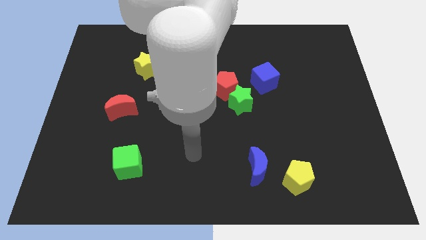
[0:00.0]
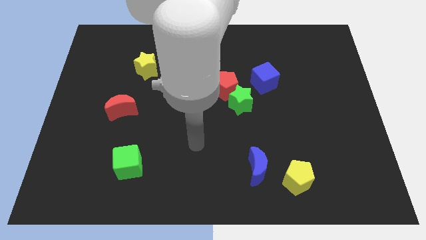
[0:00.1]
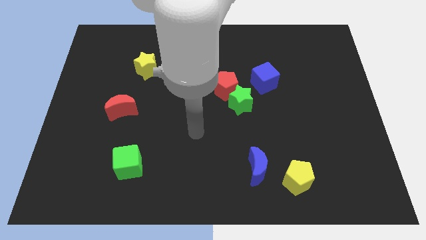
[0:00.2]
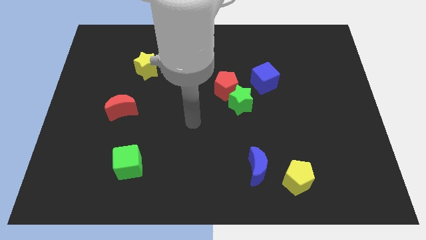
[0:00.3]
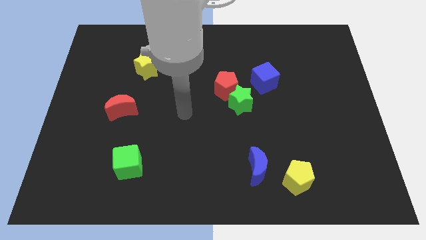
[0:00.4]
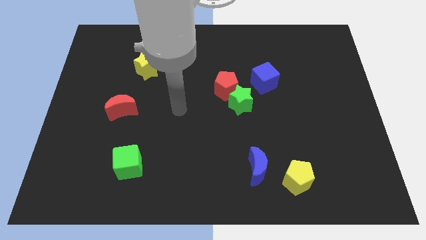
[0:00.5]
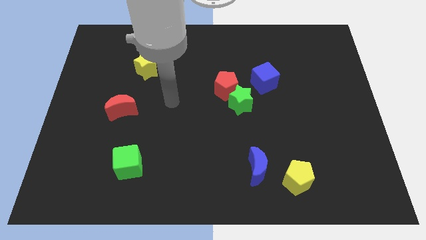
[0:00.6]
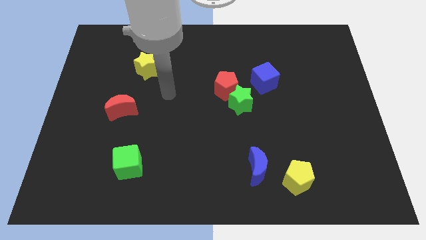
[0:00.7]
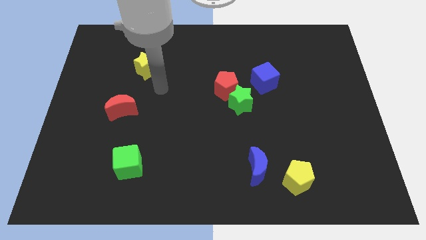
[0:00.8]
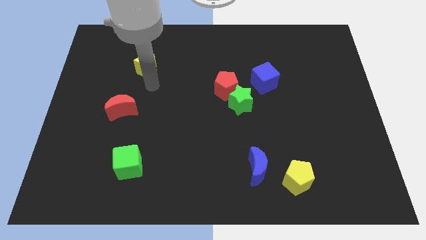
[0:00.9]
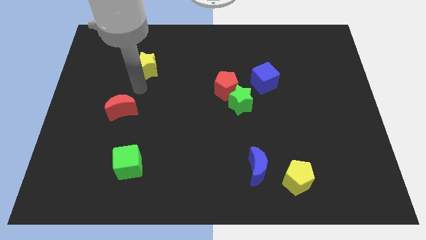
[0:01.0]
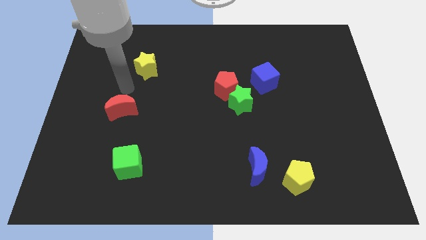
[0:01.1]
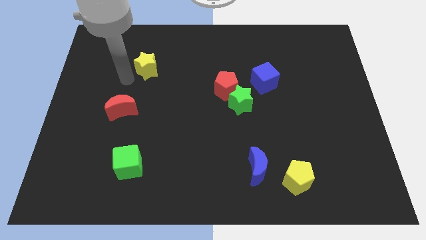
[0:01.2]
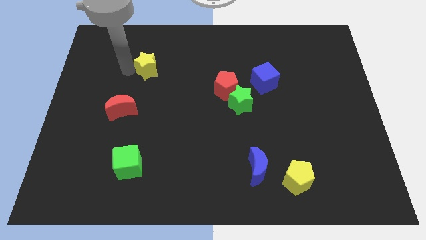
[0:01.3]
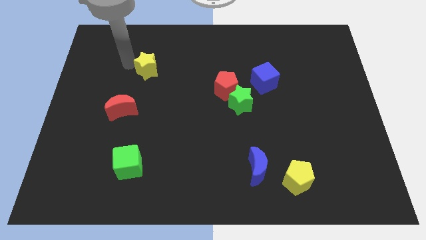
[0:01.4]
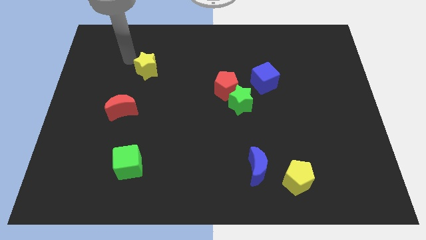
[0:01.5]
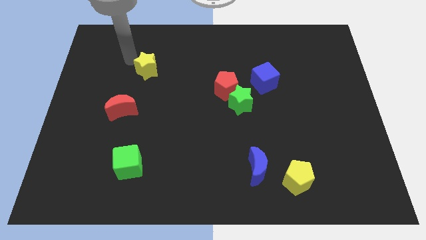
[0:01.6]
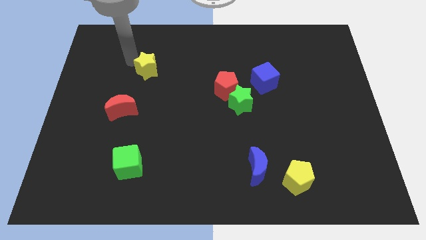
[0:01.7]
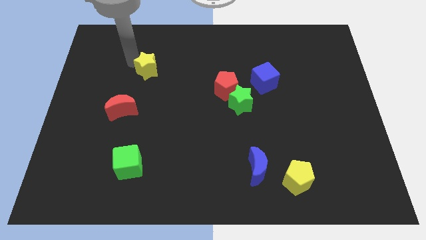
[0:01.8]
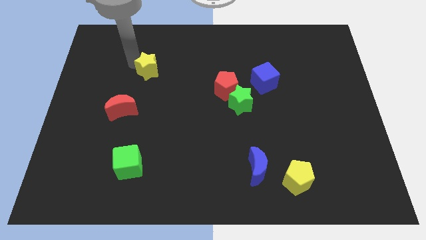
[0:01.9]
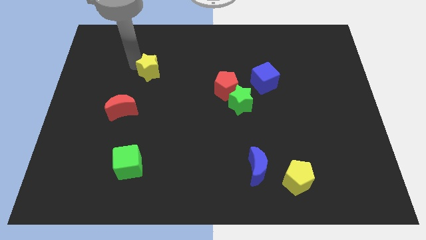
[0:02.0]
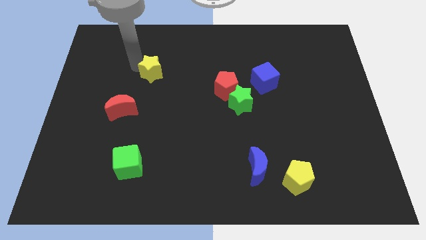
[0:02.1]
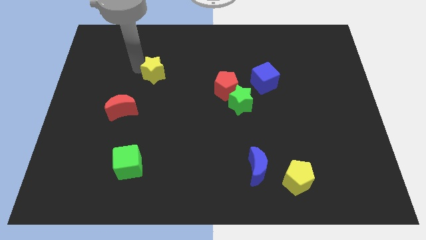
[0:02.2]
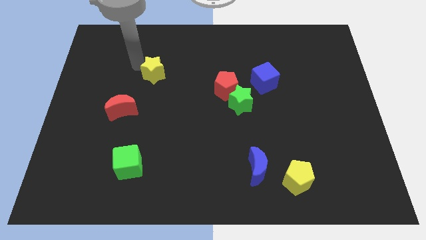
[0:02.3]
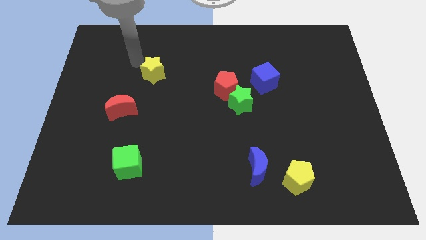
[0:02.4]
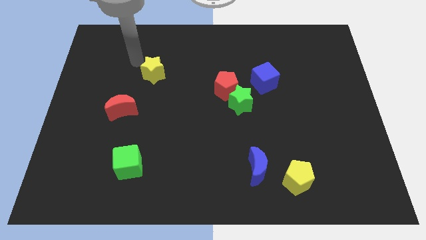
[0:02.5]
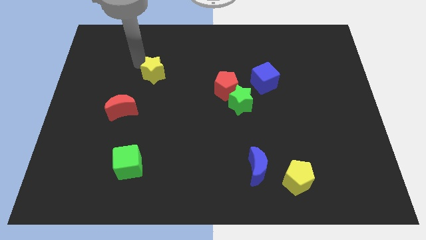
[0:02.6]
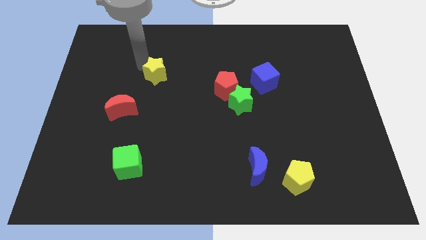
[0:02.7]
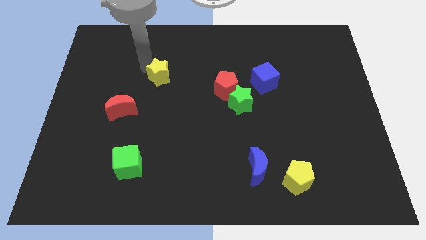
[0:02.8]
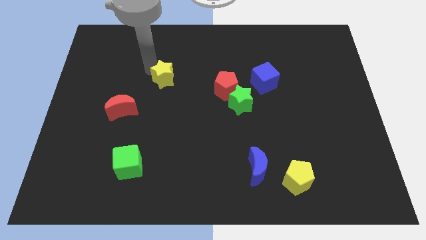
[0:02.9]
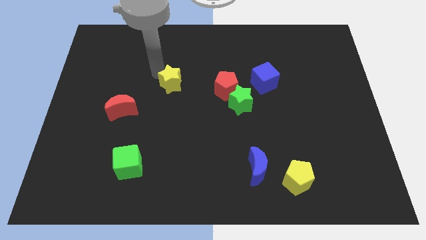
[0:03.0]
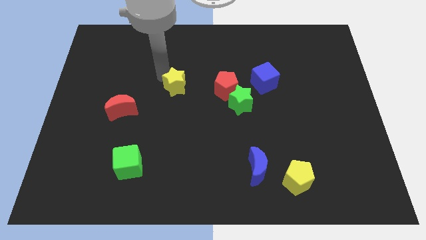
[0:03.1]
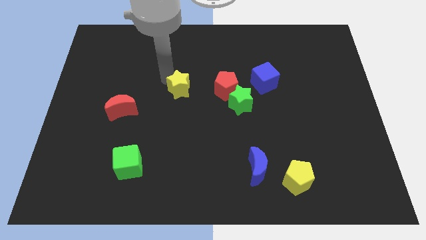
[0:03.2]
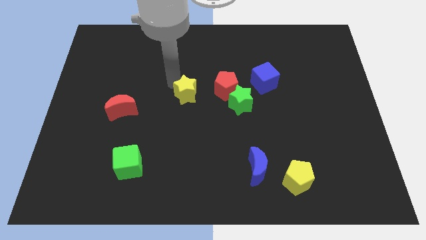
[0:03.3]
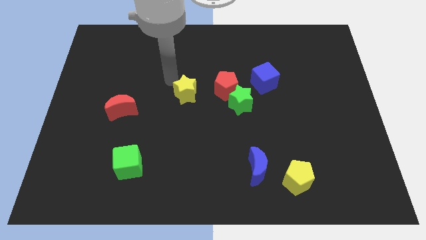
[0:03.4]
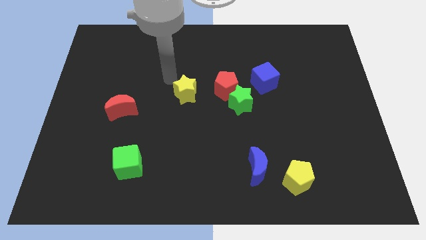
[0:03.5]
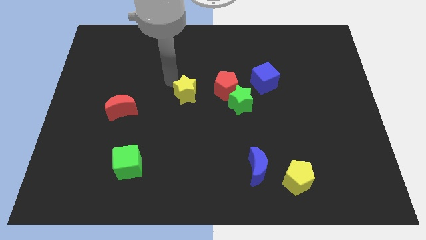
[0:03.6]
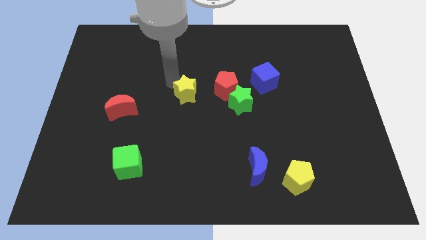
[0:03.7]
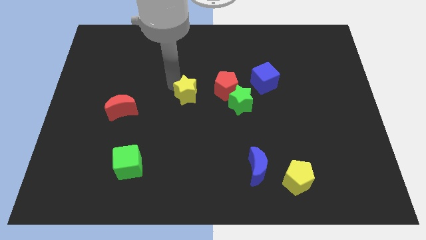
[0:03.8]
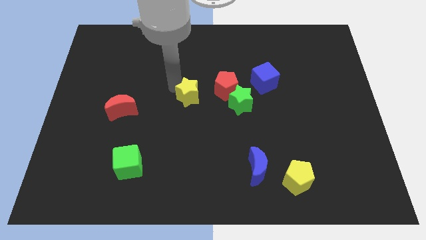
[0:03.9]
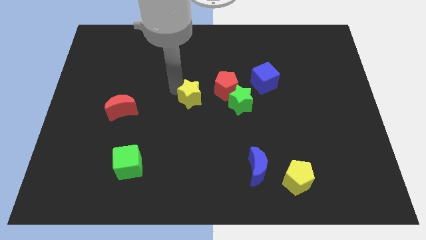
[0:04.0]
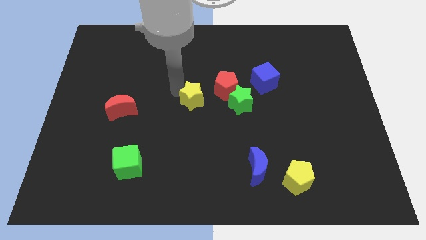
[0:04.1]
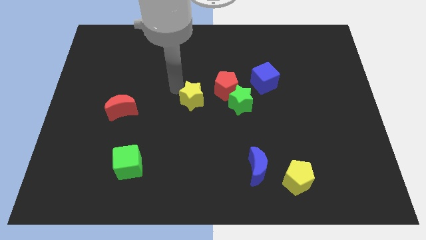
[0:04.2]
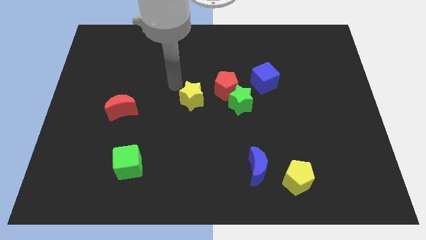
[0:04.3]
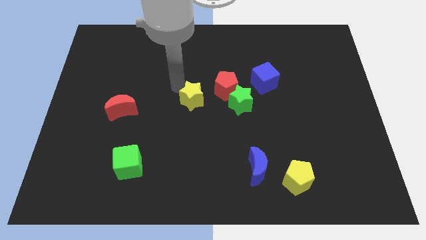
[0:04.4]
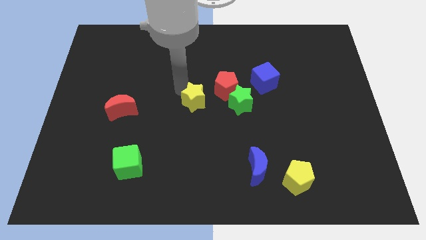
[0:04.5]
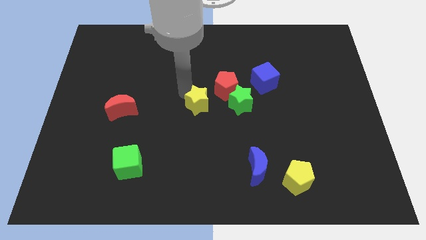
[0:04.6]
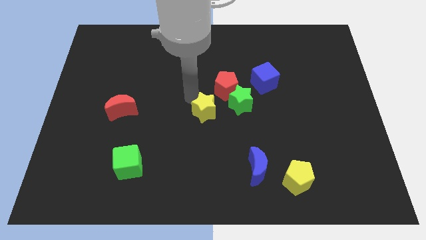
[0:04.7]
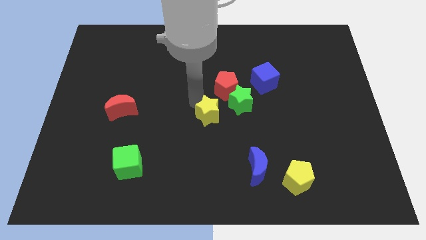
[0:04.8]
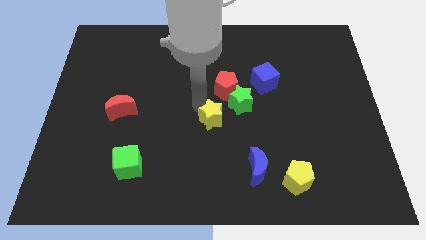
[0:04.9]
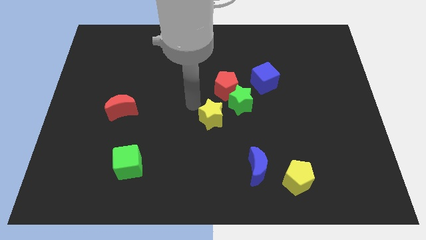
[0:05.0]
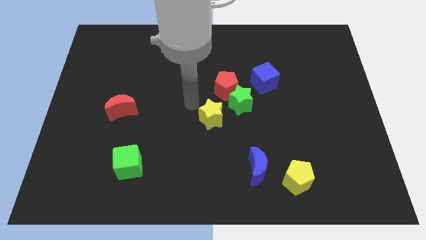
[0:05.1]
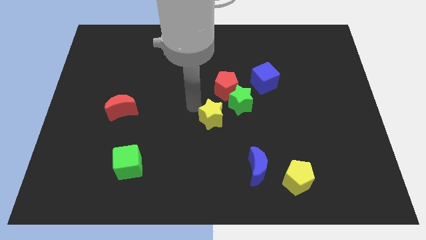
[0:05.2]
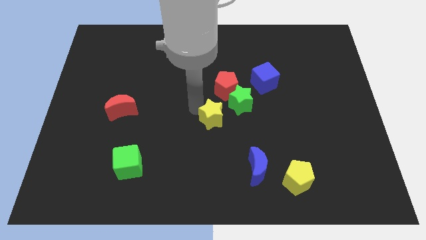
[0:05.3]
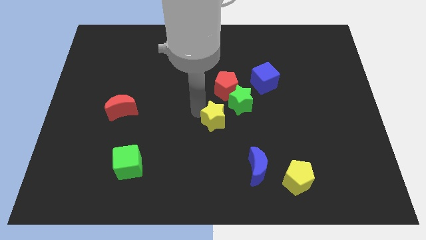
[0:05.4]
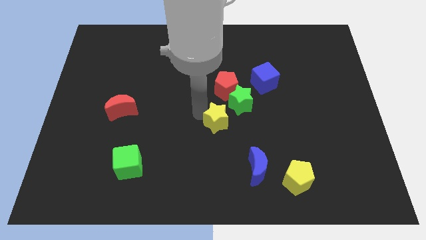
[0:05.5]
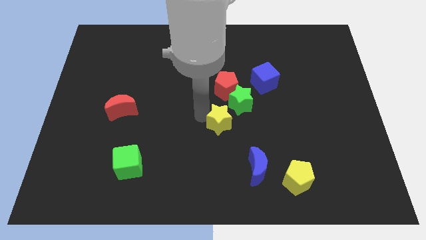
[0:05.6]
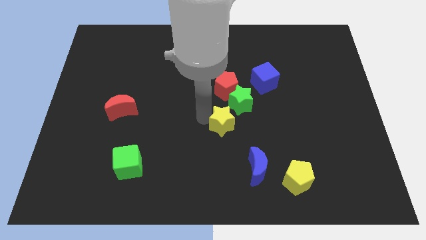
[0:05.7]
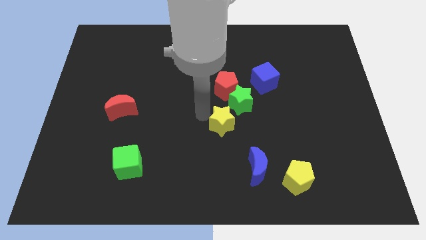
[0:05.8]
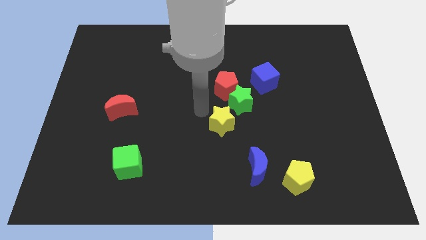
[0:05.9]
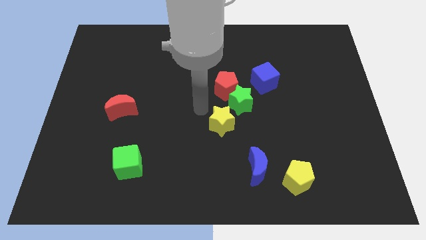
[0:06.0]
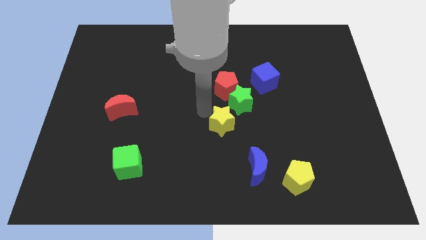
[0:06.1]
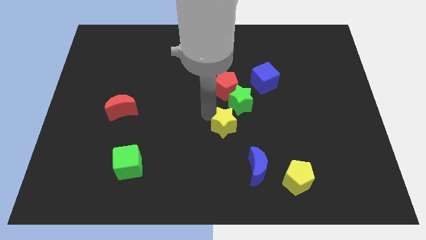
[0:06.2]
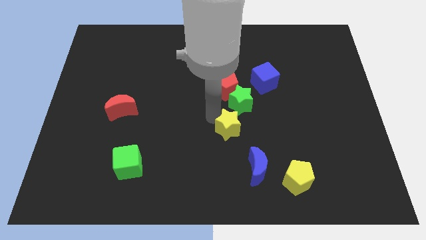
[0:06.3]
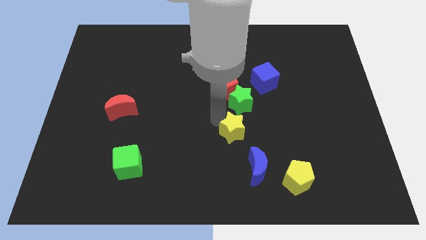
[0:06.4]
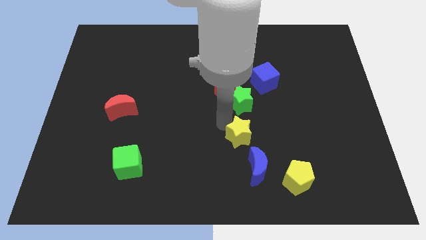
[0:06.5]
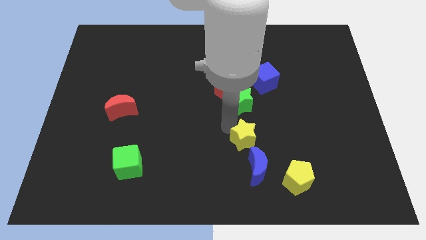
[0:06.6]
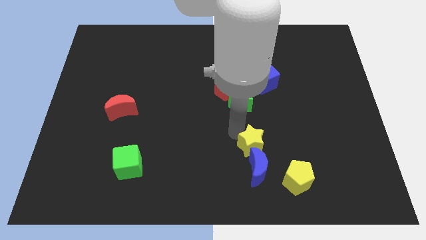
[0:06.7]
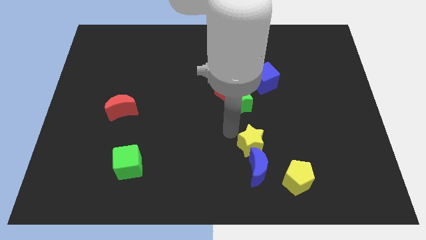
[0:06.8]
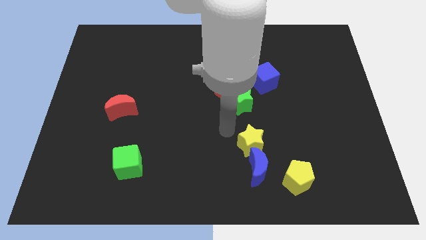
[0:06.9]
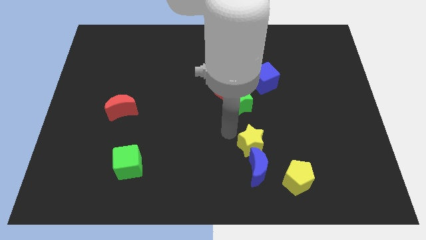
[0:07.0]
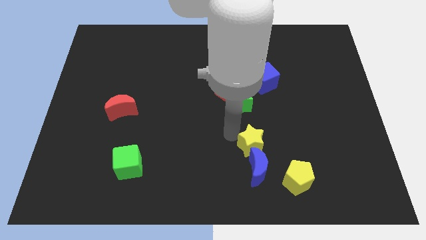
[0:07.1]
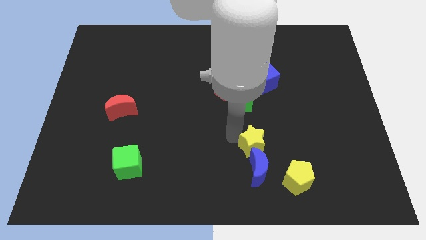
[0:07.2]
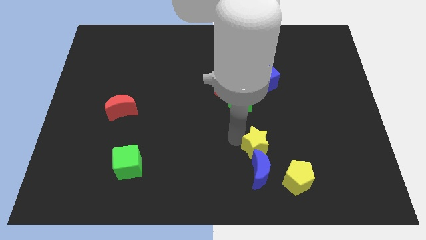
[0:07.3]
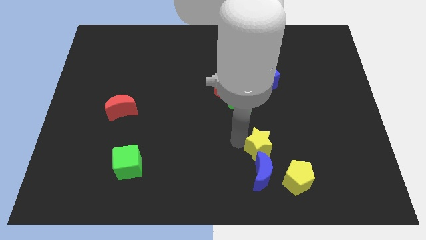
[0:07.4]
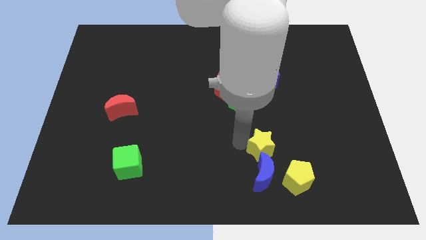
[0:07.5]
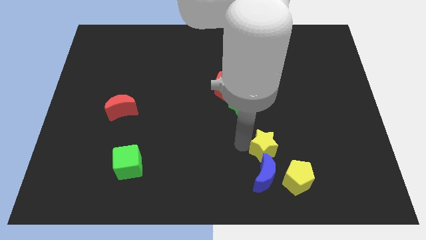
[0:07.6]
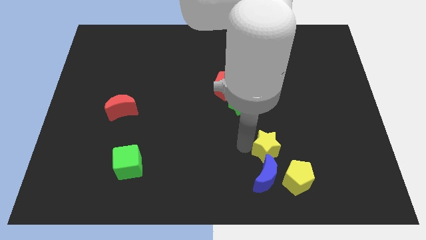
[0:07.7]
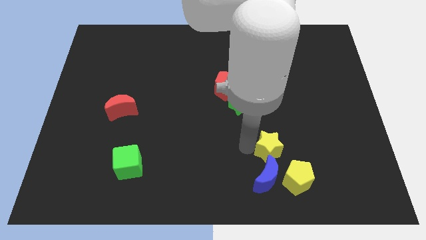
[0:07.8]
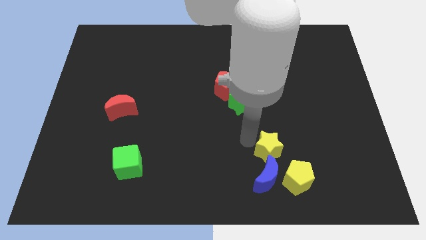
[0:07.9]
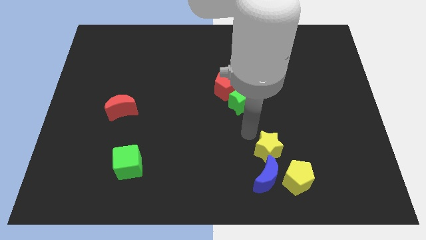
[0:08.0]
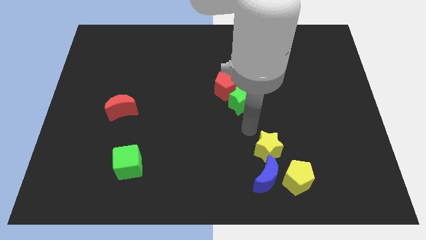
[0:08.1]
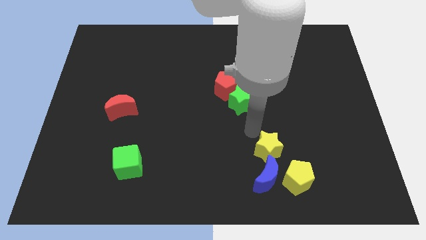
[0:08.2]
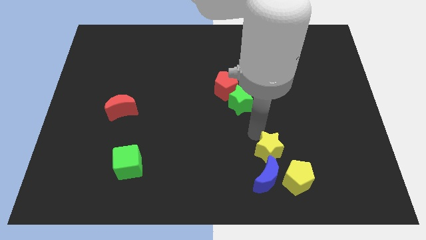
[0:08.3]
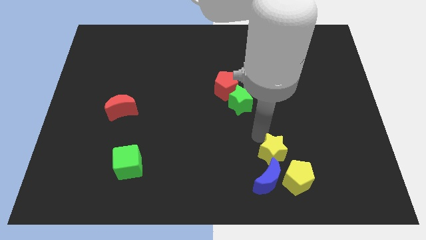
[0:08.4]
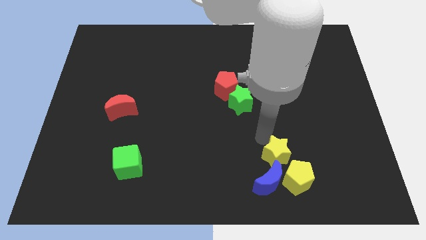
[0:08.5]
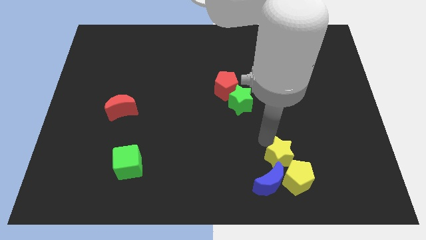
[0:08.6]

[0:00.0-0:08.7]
put the yellow star to the yellow pentagon
